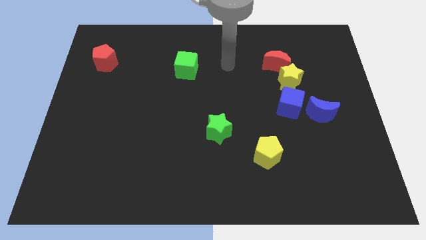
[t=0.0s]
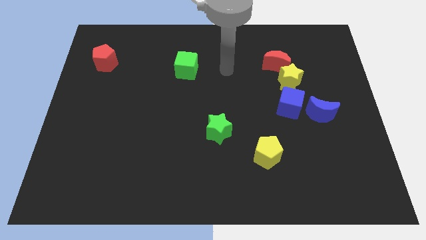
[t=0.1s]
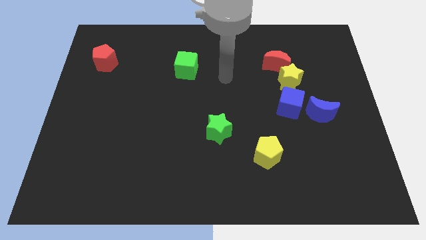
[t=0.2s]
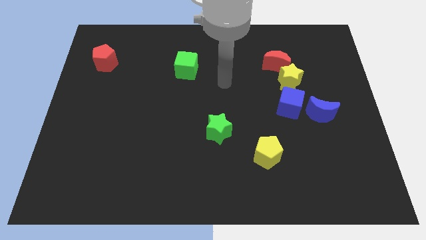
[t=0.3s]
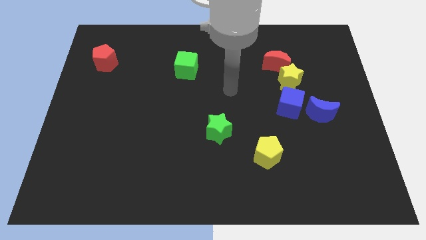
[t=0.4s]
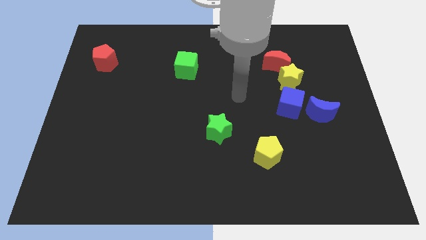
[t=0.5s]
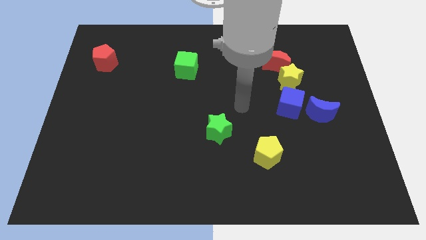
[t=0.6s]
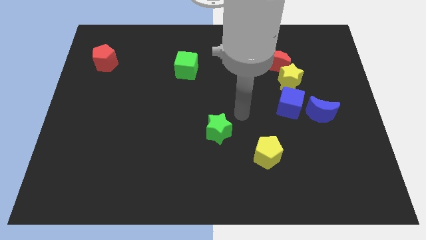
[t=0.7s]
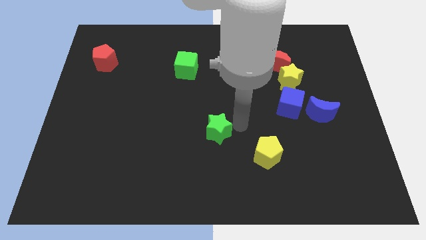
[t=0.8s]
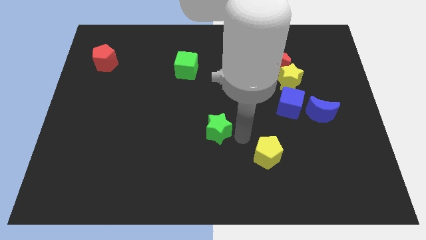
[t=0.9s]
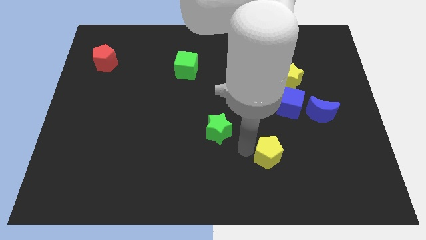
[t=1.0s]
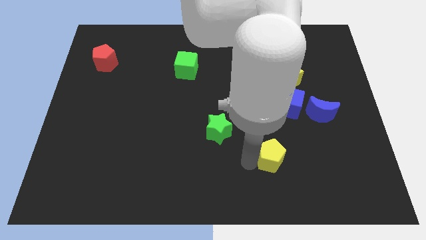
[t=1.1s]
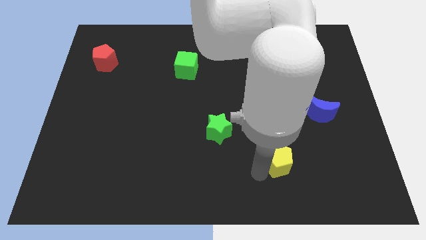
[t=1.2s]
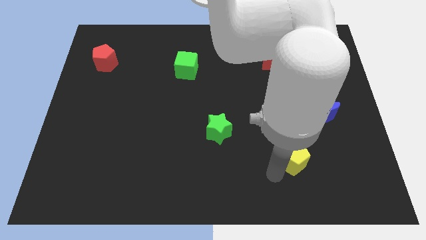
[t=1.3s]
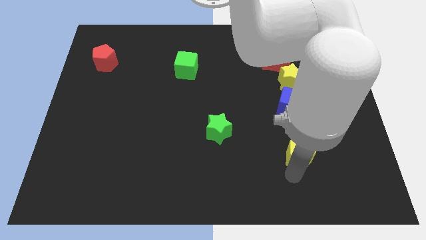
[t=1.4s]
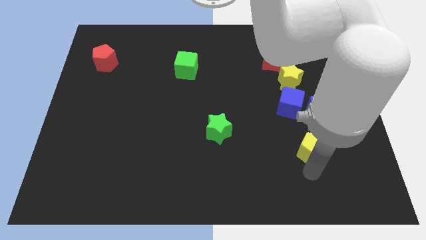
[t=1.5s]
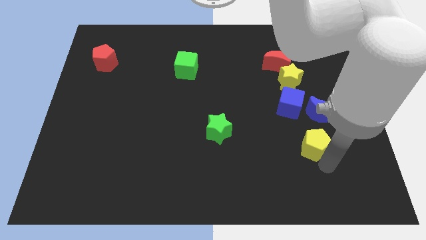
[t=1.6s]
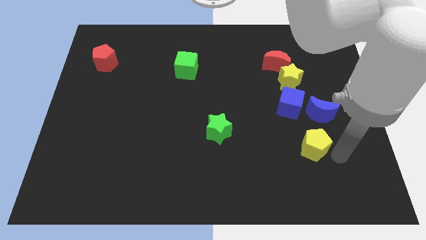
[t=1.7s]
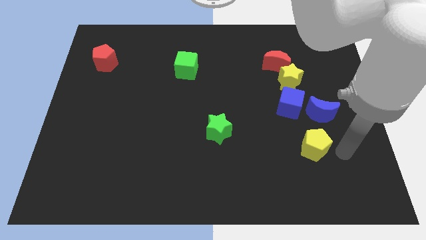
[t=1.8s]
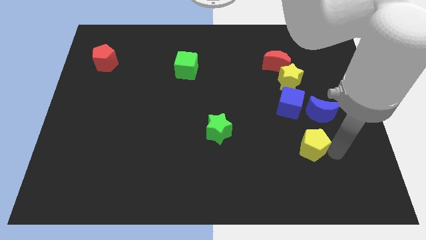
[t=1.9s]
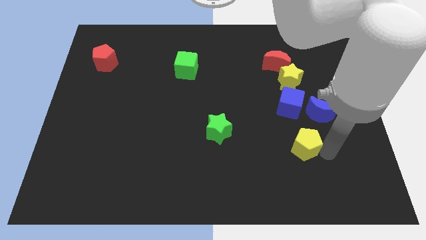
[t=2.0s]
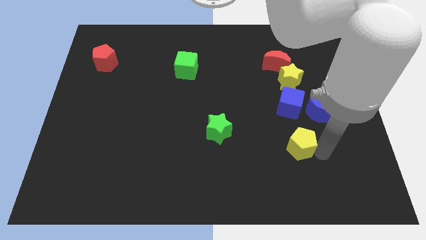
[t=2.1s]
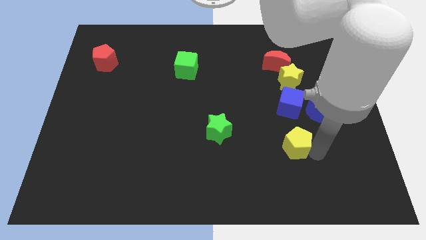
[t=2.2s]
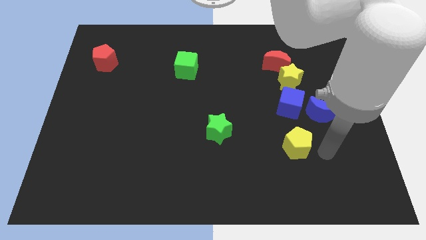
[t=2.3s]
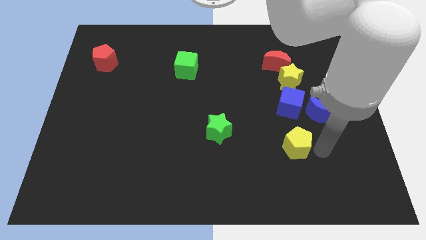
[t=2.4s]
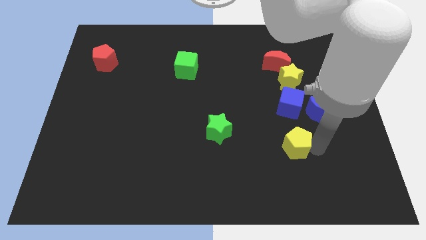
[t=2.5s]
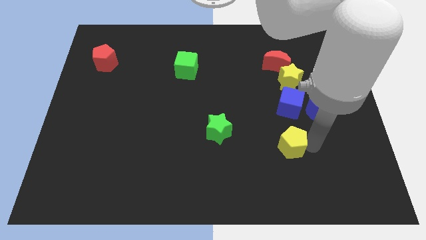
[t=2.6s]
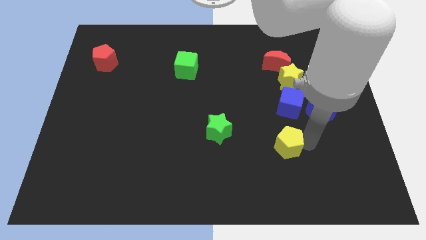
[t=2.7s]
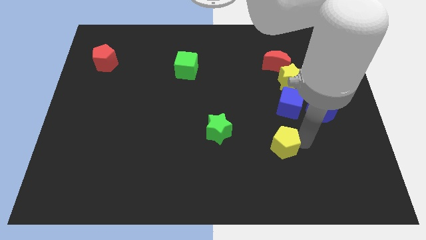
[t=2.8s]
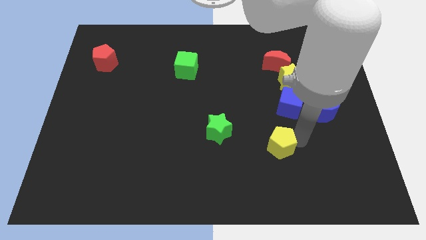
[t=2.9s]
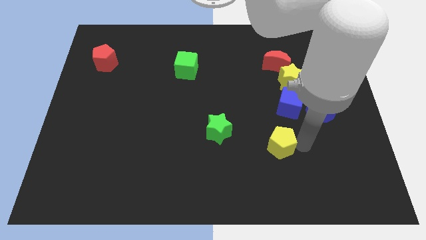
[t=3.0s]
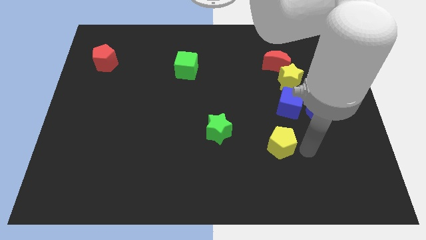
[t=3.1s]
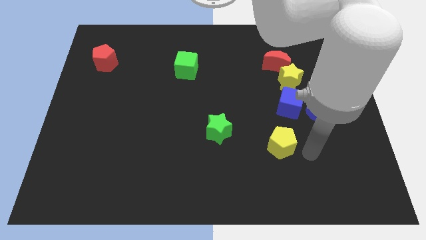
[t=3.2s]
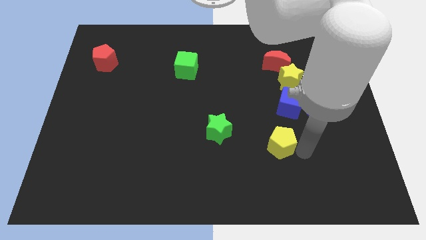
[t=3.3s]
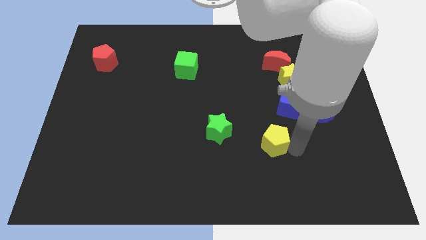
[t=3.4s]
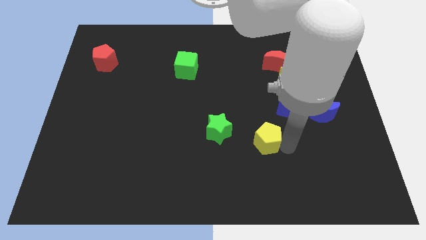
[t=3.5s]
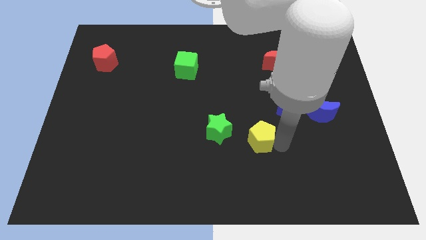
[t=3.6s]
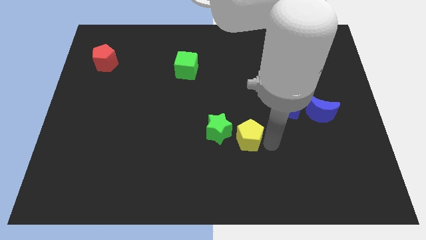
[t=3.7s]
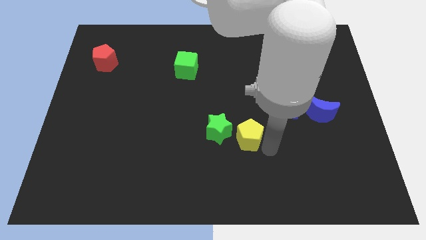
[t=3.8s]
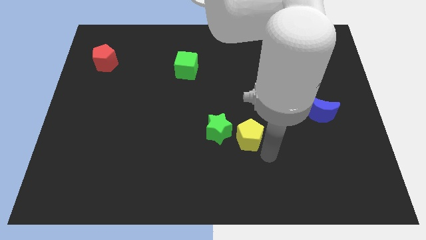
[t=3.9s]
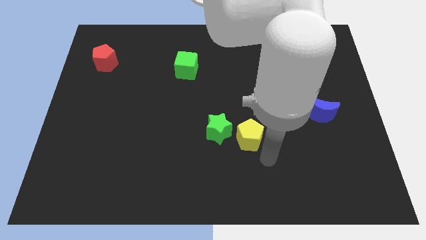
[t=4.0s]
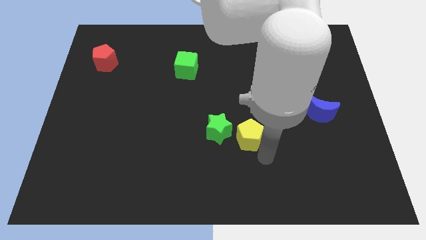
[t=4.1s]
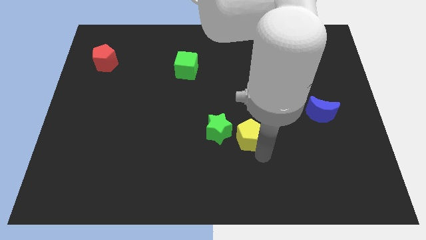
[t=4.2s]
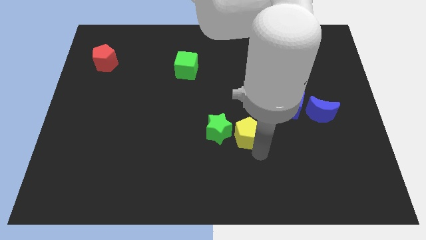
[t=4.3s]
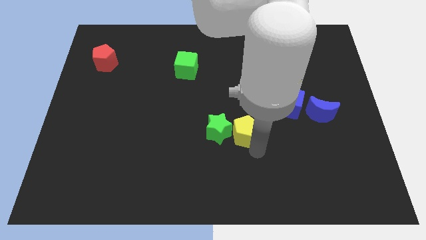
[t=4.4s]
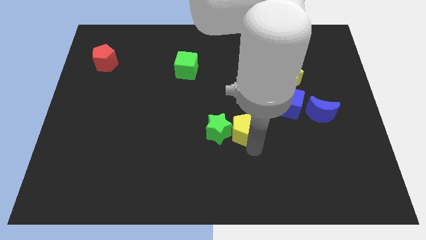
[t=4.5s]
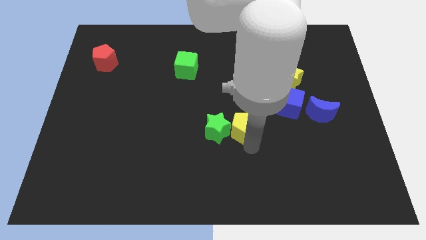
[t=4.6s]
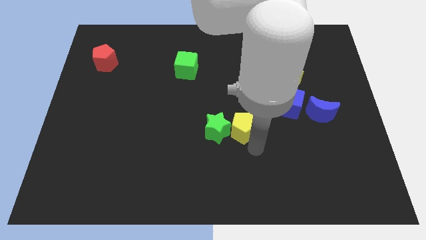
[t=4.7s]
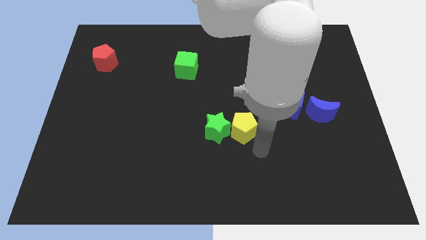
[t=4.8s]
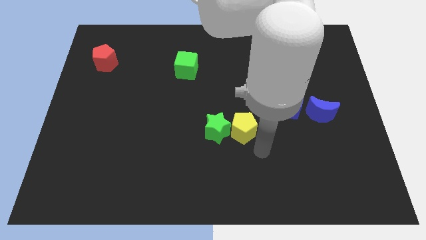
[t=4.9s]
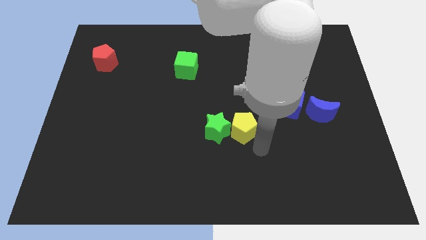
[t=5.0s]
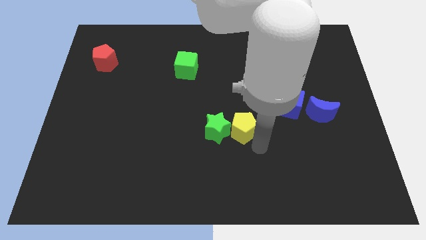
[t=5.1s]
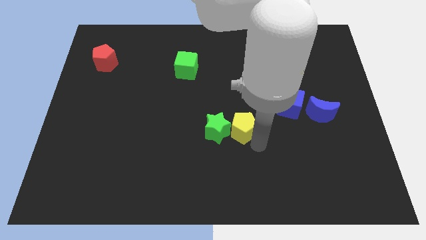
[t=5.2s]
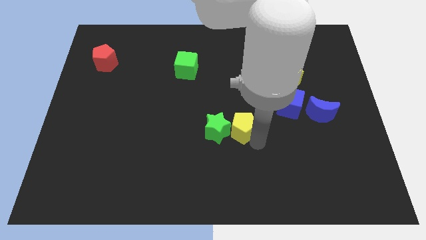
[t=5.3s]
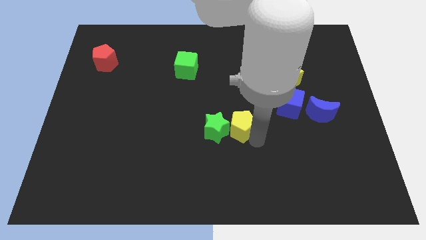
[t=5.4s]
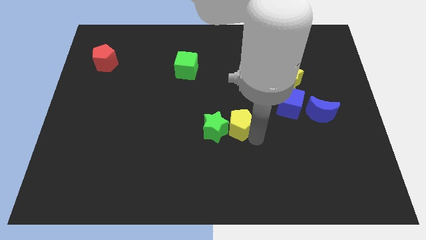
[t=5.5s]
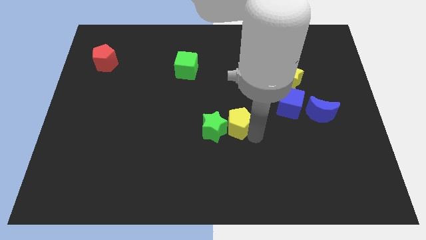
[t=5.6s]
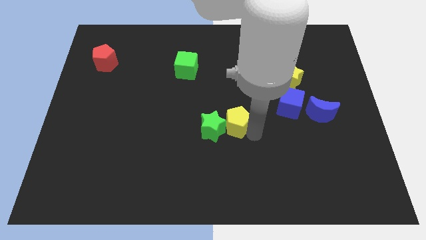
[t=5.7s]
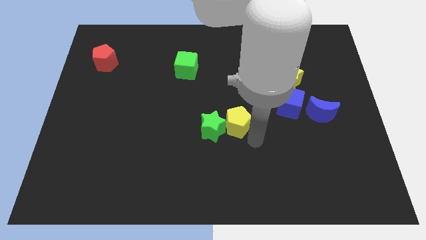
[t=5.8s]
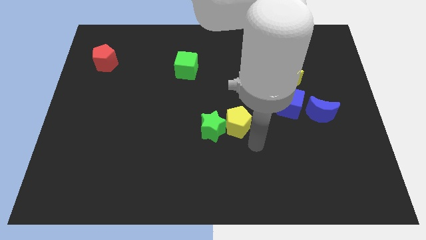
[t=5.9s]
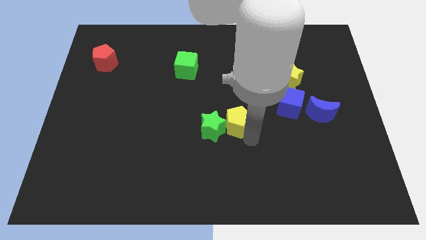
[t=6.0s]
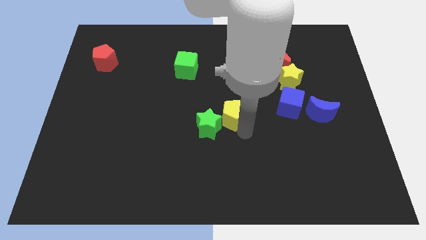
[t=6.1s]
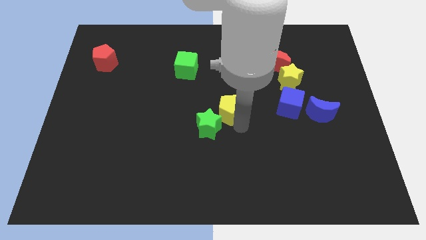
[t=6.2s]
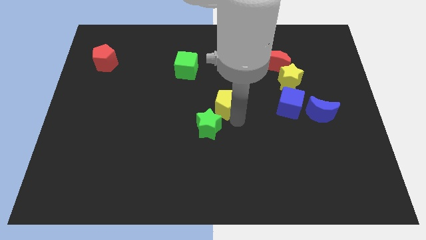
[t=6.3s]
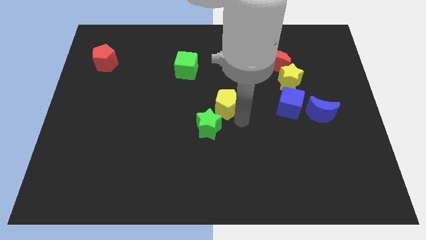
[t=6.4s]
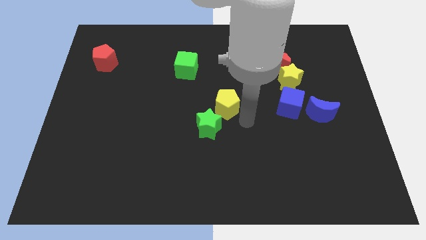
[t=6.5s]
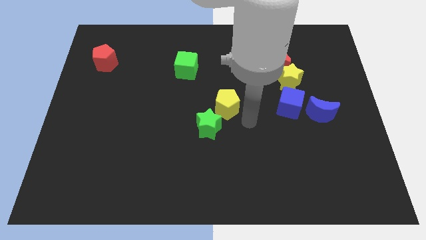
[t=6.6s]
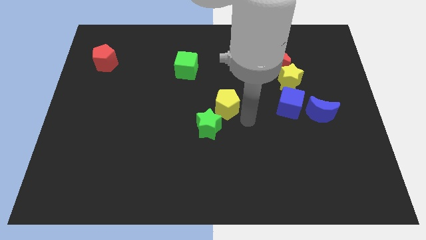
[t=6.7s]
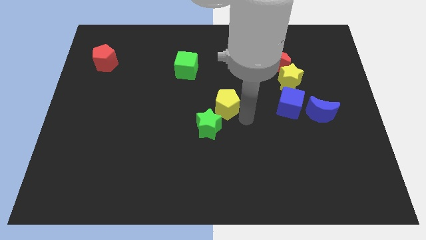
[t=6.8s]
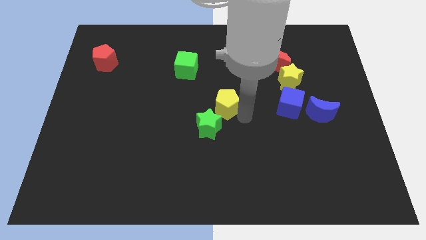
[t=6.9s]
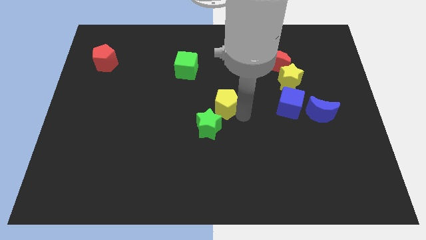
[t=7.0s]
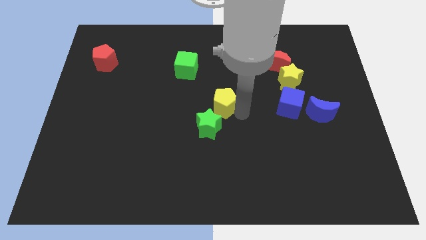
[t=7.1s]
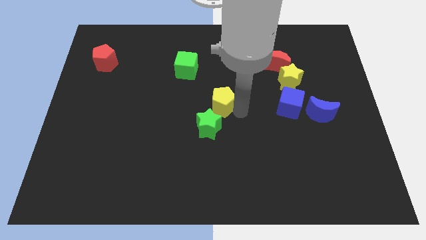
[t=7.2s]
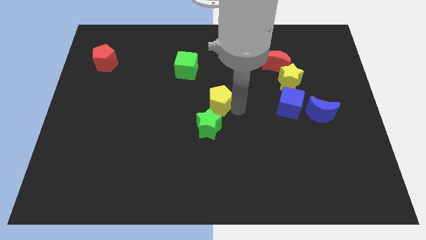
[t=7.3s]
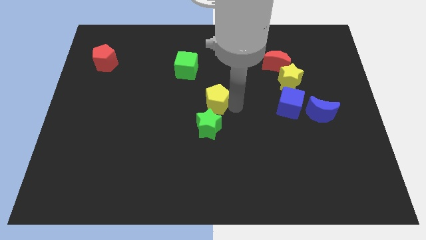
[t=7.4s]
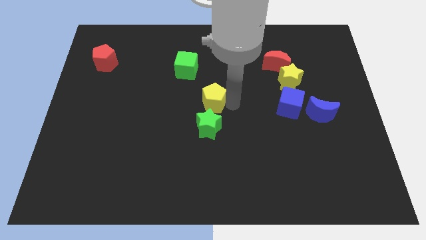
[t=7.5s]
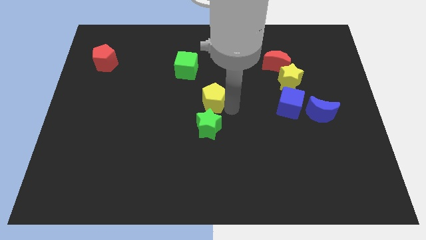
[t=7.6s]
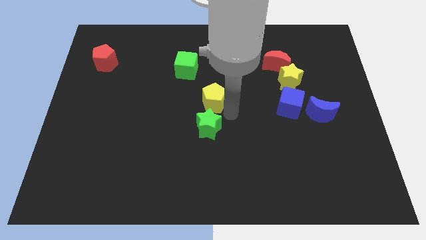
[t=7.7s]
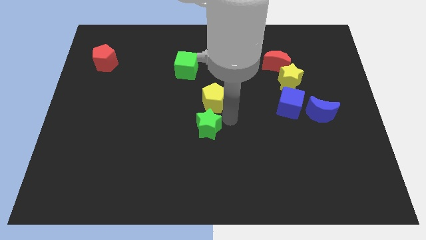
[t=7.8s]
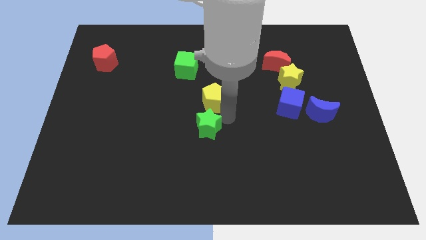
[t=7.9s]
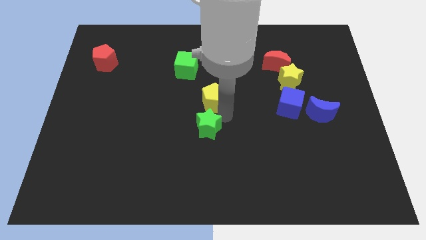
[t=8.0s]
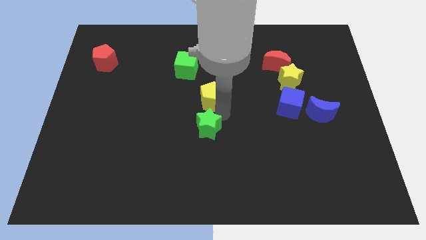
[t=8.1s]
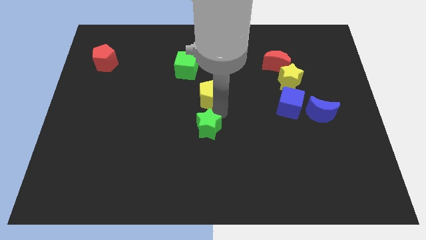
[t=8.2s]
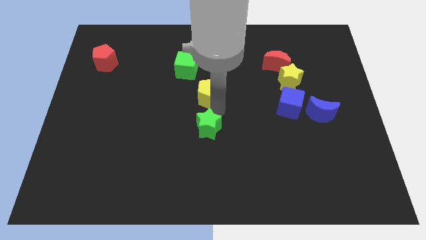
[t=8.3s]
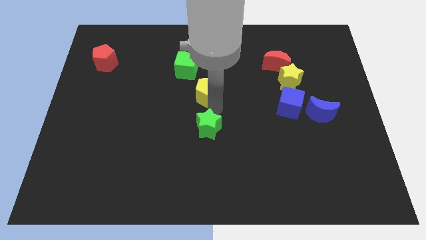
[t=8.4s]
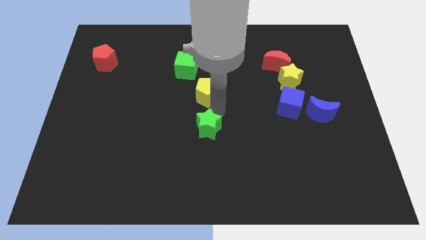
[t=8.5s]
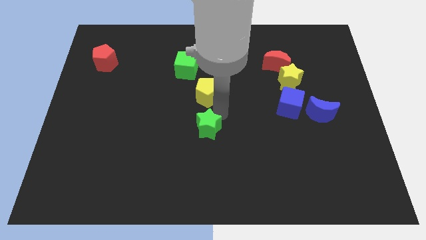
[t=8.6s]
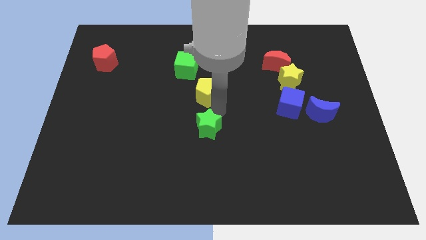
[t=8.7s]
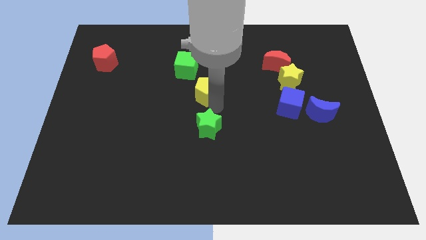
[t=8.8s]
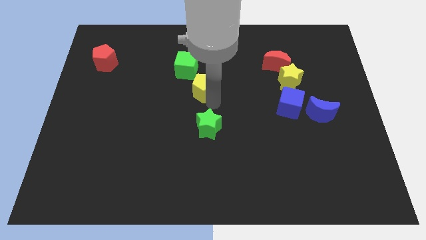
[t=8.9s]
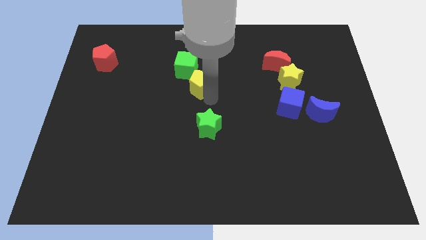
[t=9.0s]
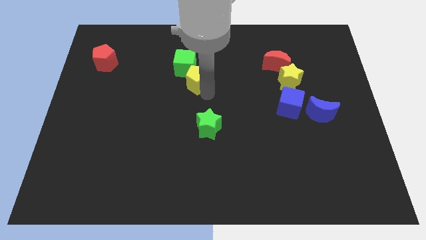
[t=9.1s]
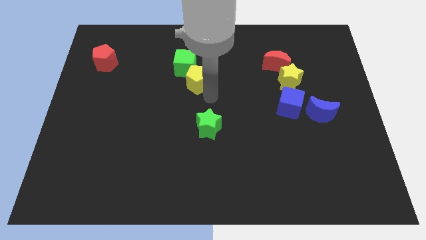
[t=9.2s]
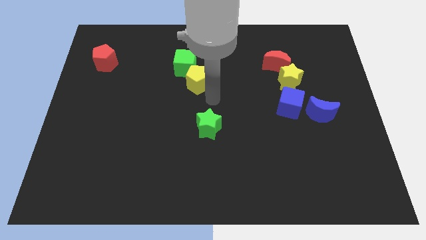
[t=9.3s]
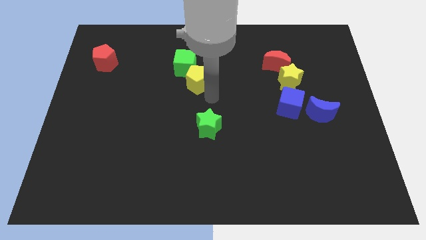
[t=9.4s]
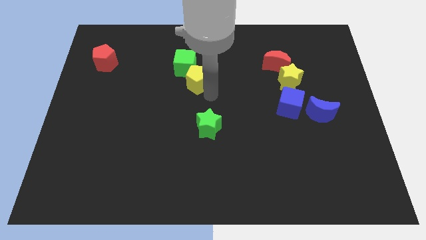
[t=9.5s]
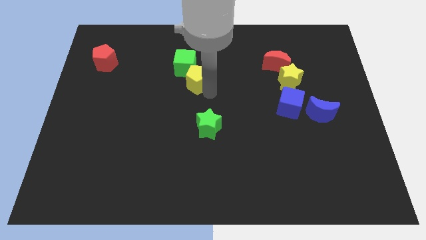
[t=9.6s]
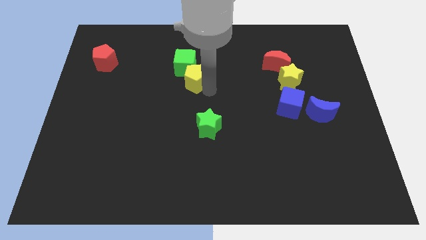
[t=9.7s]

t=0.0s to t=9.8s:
put the yellow pentagon towards the green cube
